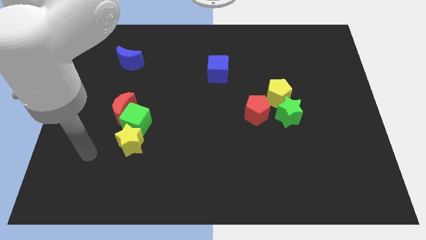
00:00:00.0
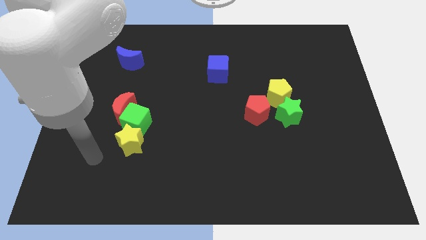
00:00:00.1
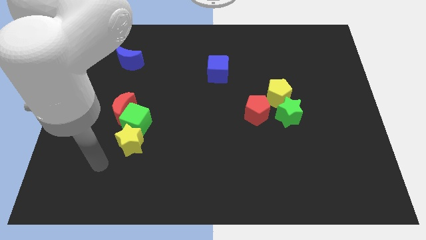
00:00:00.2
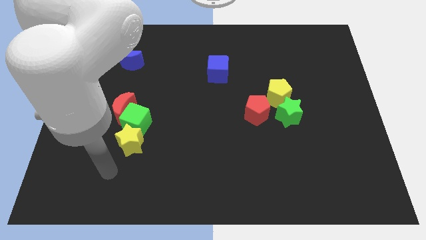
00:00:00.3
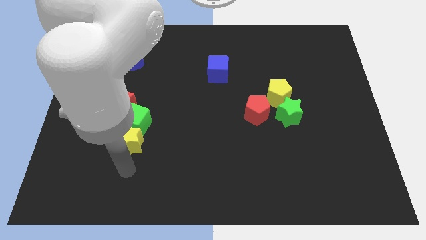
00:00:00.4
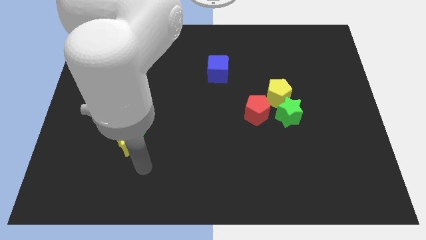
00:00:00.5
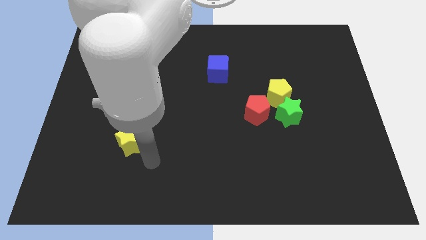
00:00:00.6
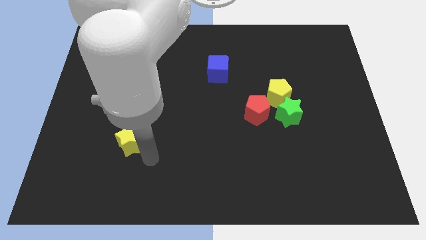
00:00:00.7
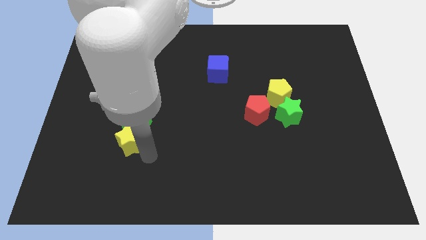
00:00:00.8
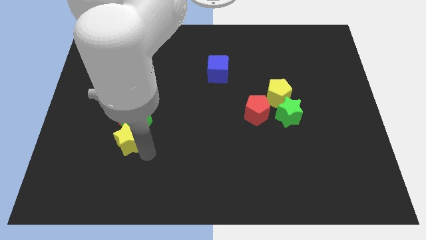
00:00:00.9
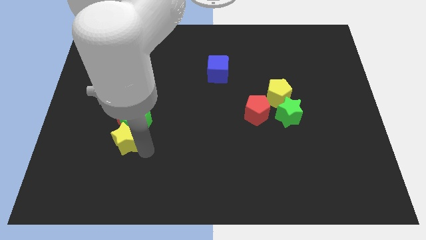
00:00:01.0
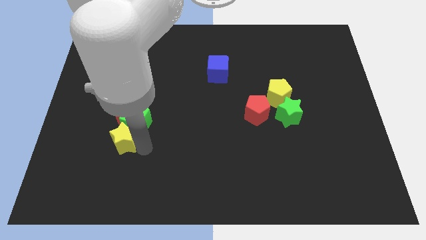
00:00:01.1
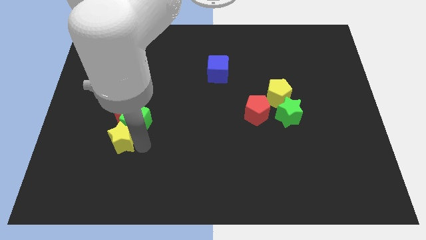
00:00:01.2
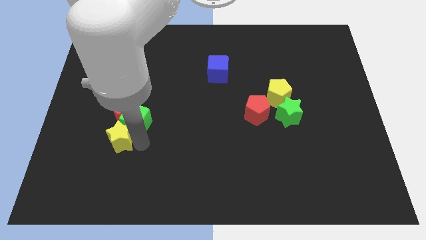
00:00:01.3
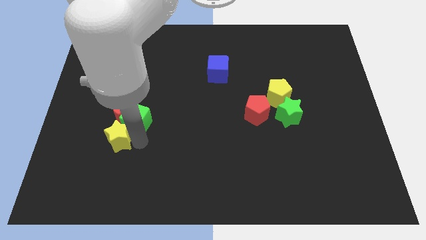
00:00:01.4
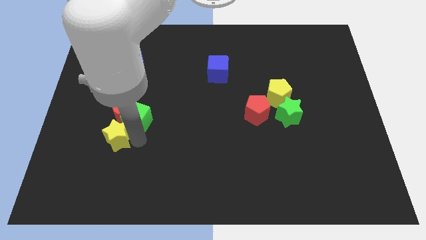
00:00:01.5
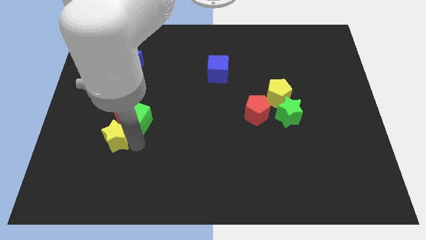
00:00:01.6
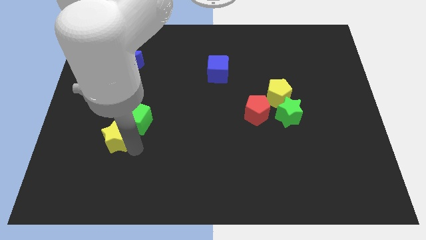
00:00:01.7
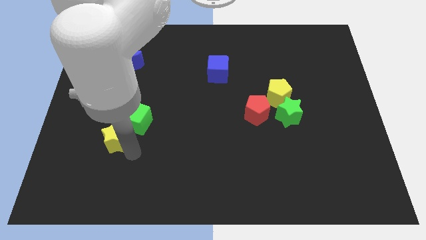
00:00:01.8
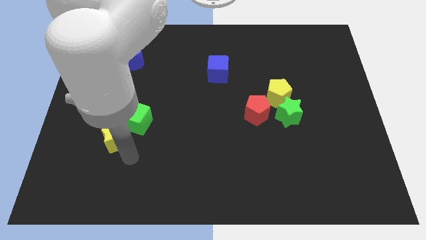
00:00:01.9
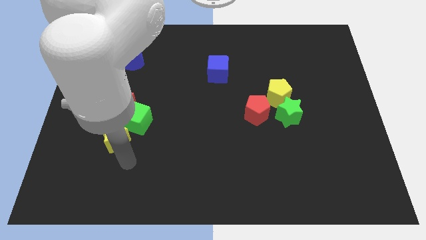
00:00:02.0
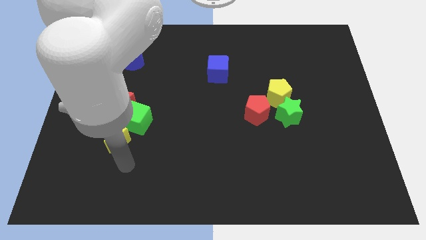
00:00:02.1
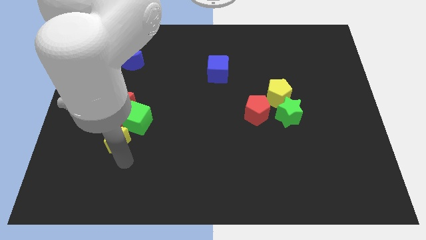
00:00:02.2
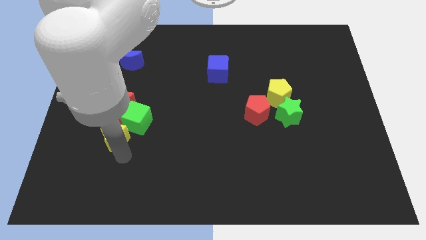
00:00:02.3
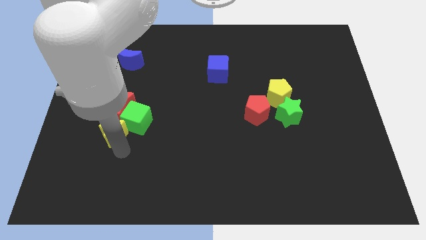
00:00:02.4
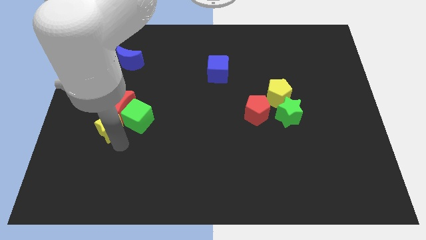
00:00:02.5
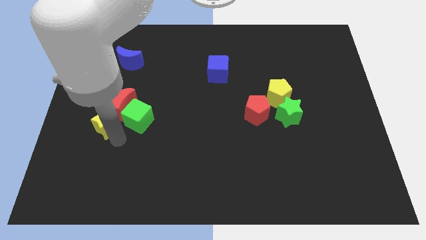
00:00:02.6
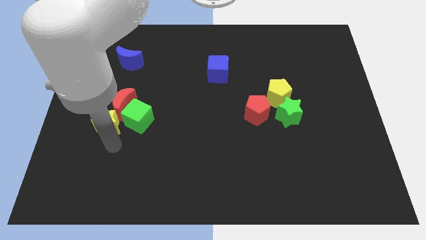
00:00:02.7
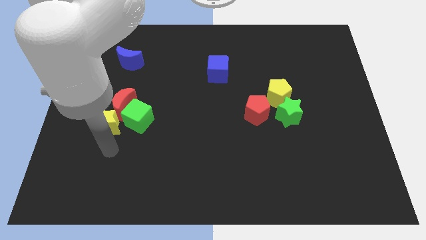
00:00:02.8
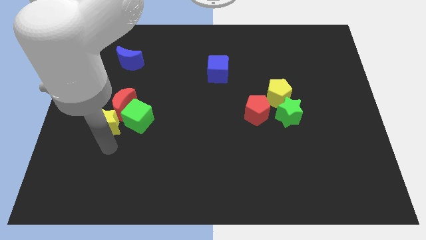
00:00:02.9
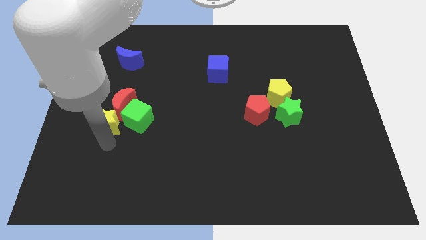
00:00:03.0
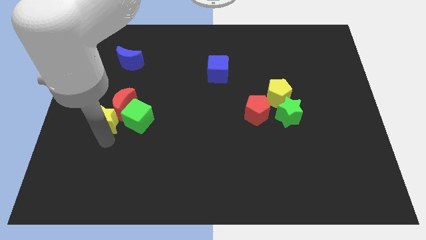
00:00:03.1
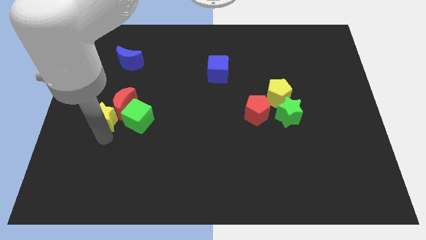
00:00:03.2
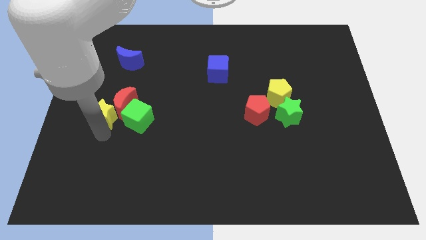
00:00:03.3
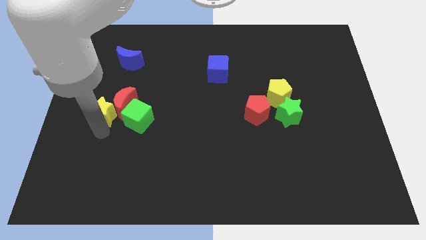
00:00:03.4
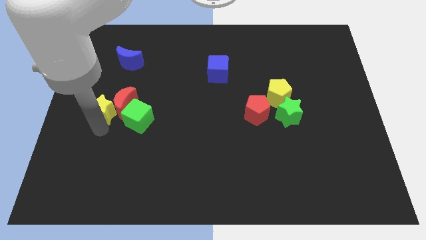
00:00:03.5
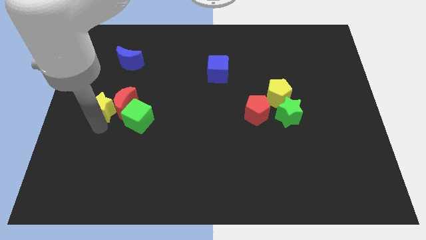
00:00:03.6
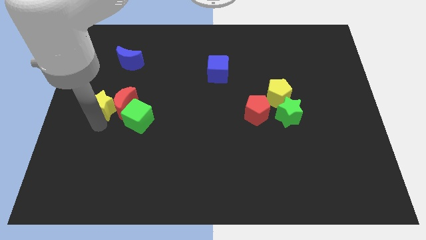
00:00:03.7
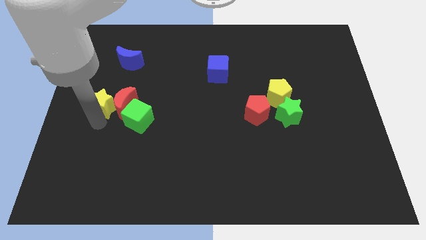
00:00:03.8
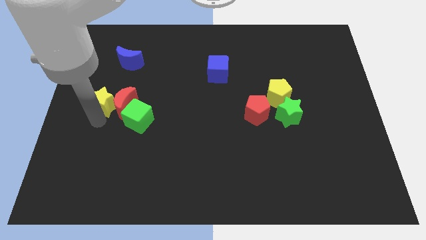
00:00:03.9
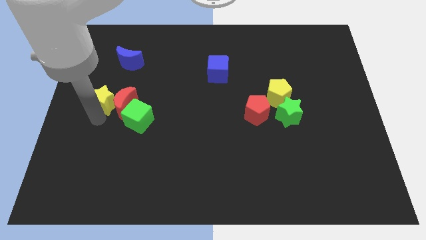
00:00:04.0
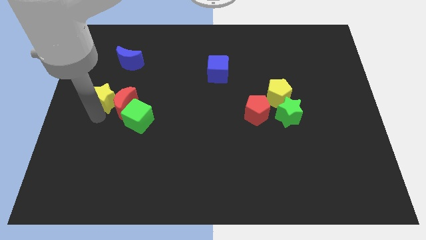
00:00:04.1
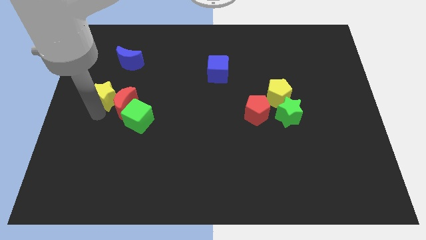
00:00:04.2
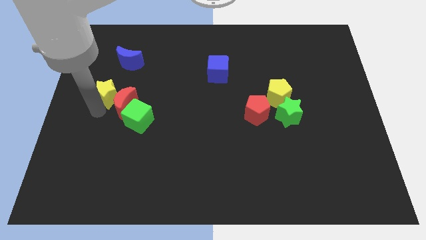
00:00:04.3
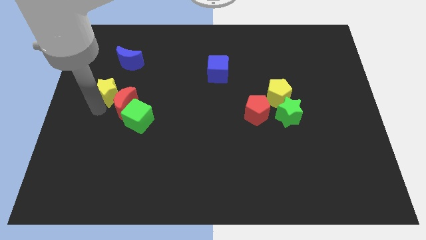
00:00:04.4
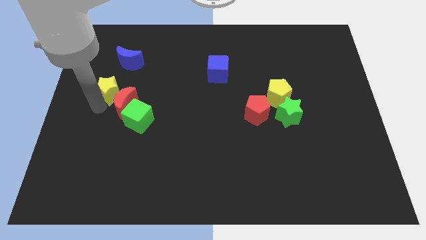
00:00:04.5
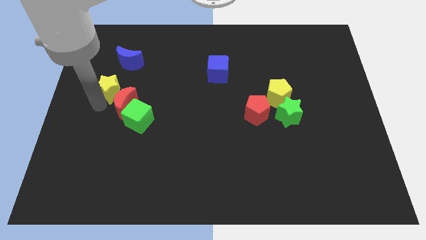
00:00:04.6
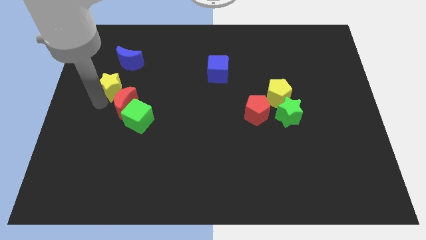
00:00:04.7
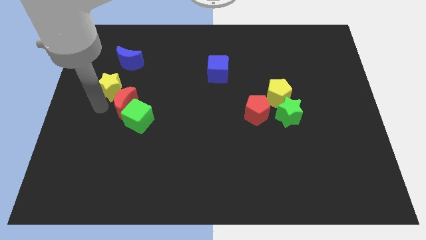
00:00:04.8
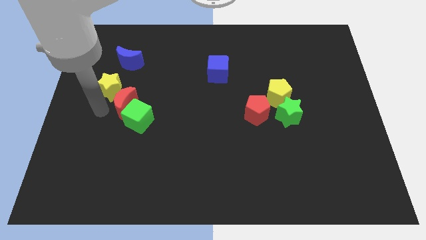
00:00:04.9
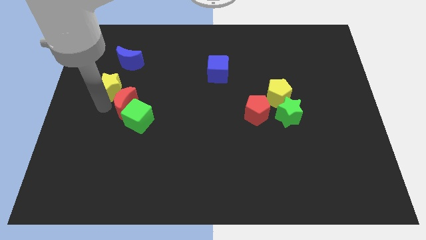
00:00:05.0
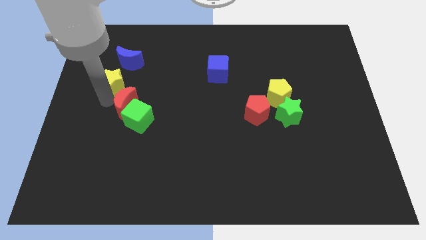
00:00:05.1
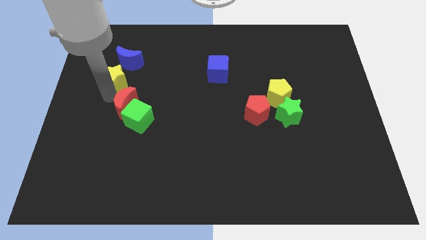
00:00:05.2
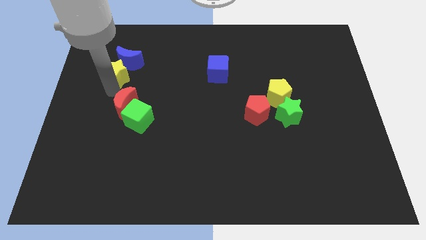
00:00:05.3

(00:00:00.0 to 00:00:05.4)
push the yellow star close to the blue moon

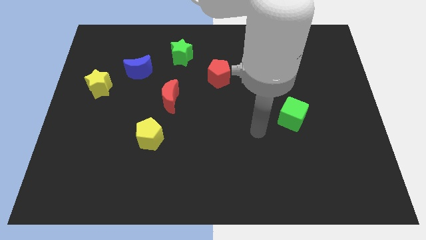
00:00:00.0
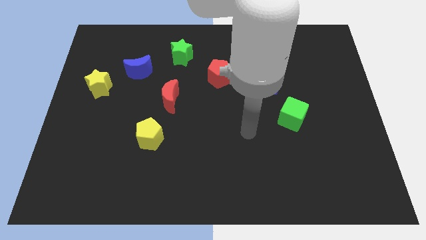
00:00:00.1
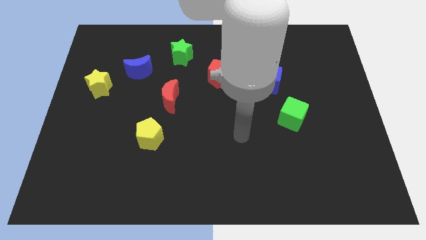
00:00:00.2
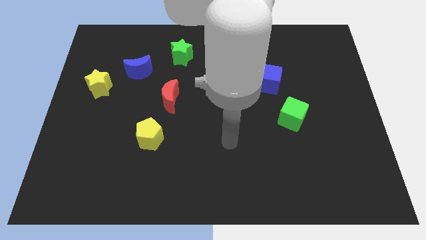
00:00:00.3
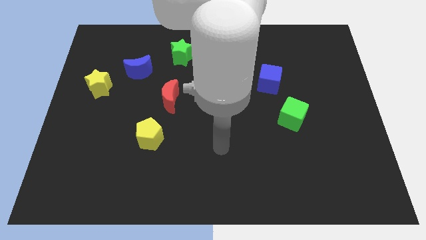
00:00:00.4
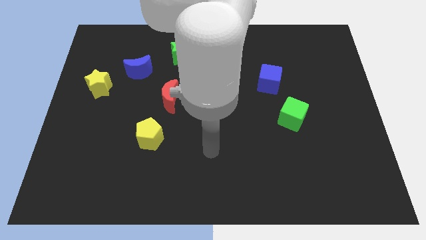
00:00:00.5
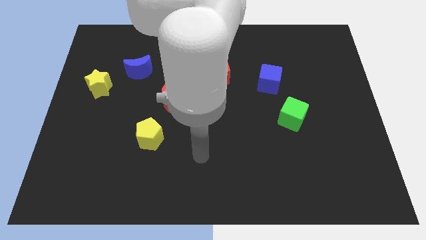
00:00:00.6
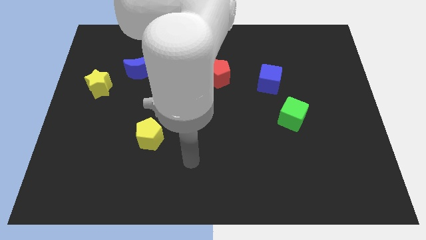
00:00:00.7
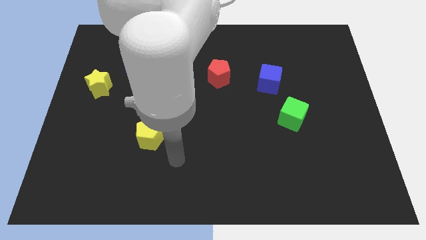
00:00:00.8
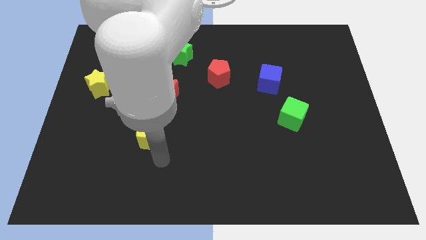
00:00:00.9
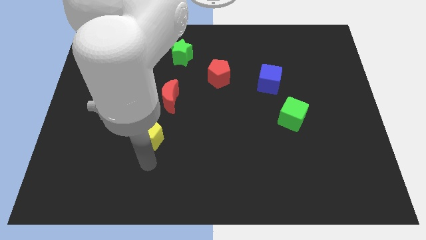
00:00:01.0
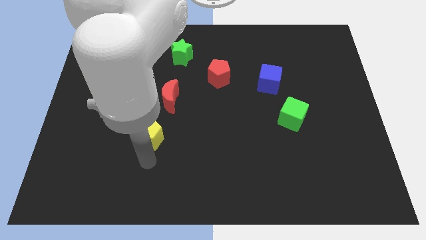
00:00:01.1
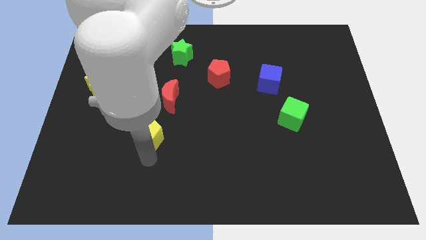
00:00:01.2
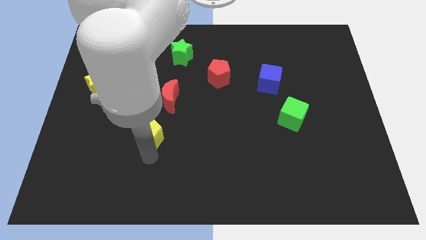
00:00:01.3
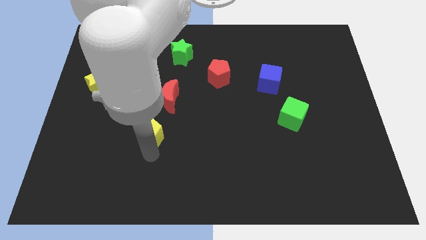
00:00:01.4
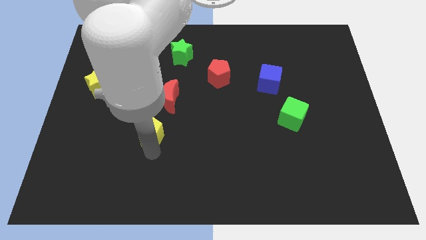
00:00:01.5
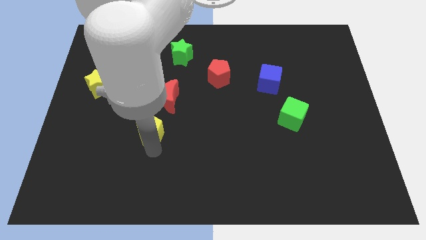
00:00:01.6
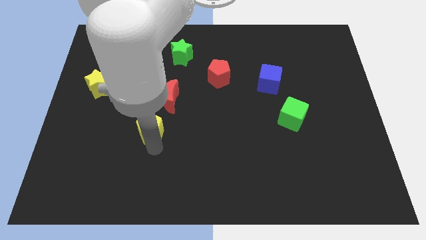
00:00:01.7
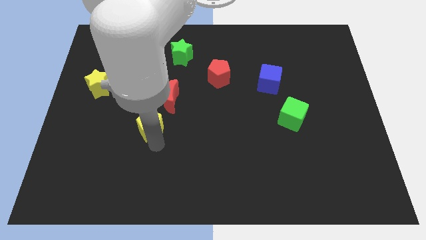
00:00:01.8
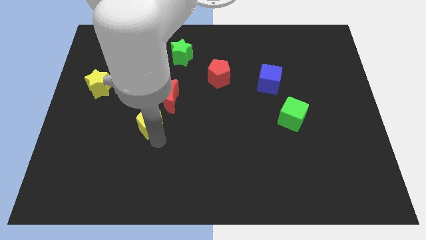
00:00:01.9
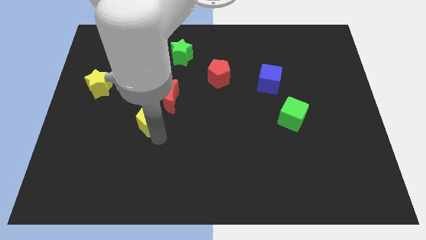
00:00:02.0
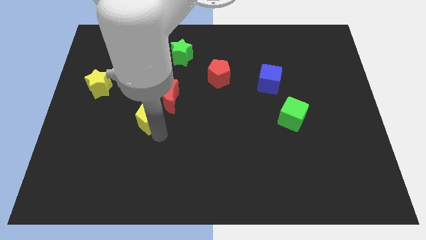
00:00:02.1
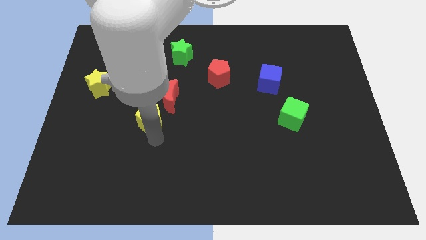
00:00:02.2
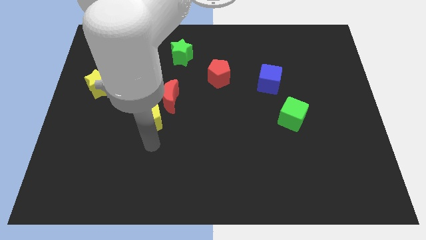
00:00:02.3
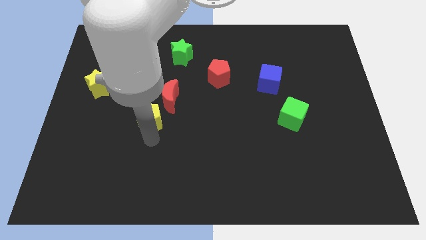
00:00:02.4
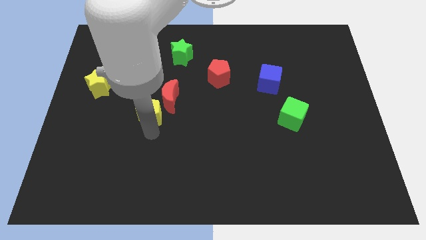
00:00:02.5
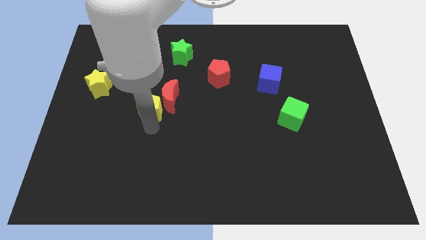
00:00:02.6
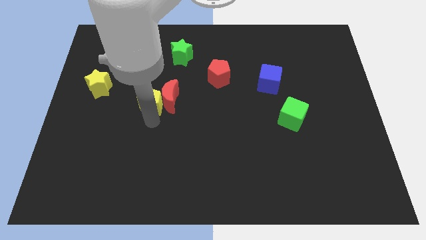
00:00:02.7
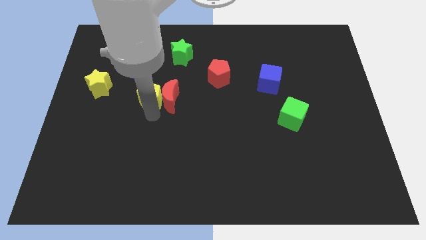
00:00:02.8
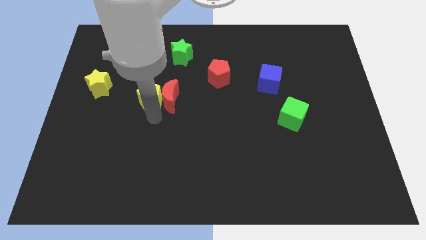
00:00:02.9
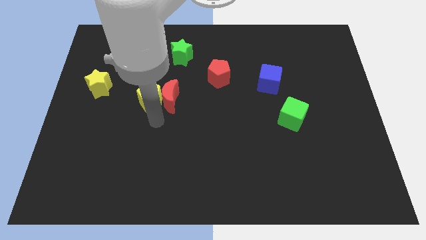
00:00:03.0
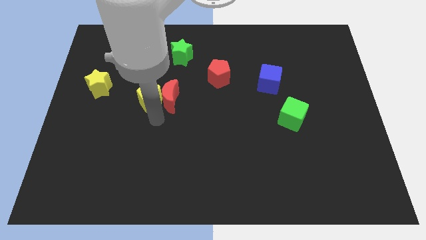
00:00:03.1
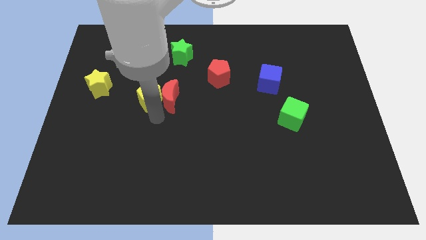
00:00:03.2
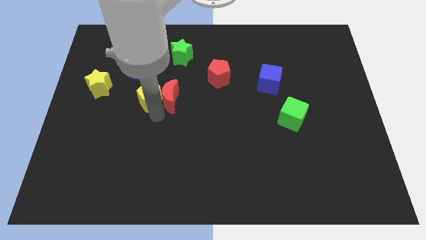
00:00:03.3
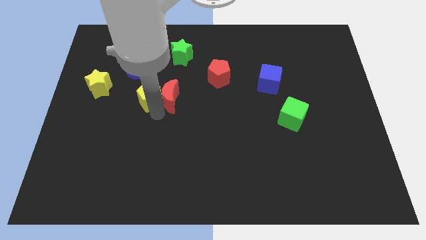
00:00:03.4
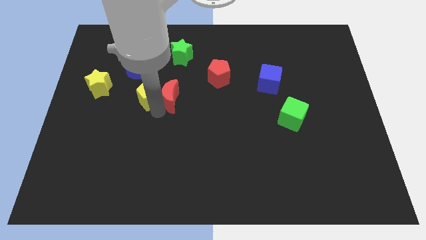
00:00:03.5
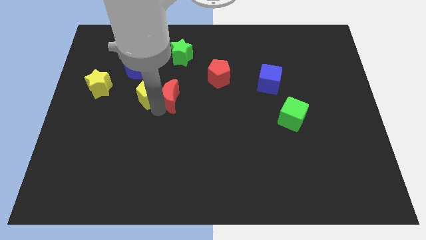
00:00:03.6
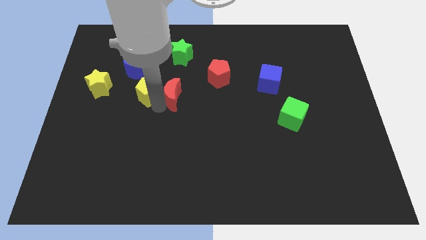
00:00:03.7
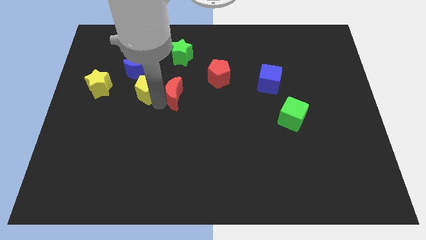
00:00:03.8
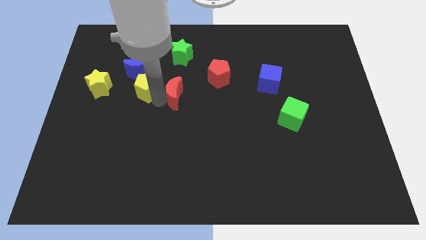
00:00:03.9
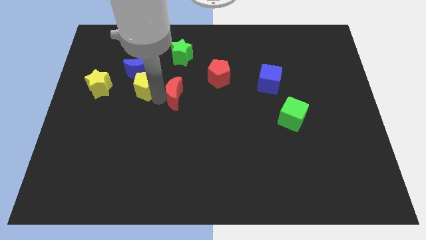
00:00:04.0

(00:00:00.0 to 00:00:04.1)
move the yellow pentagon close to the blue moon
